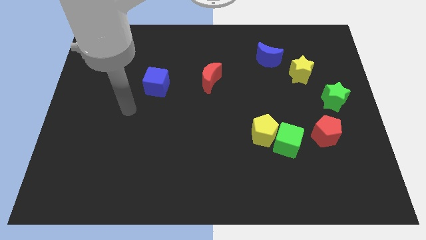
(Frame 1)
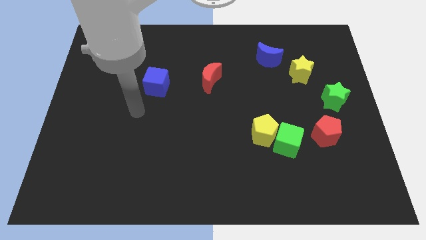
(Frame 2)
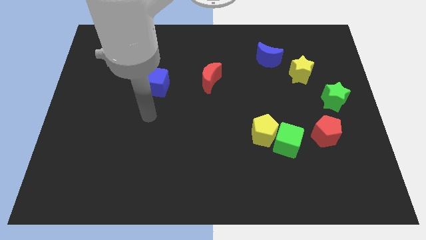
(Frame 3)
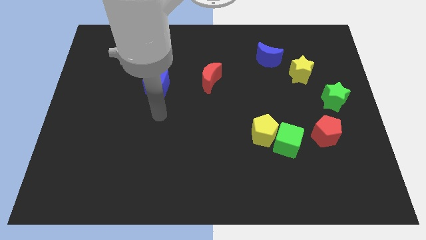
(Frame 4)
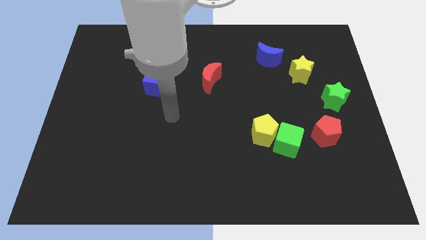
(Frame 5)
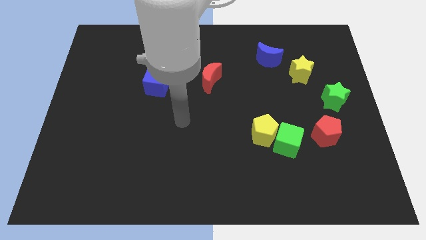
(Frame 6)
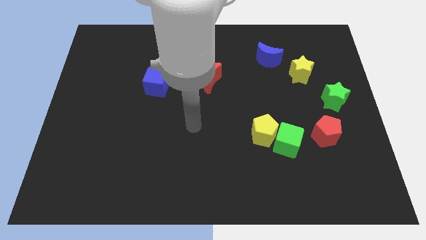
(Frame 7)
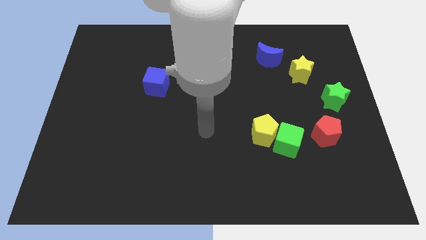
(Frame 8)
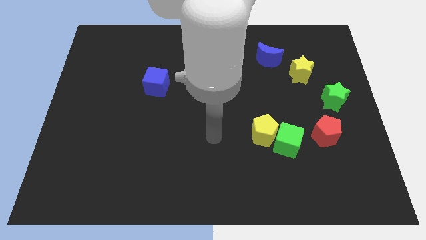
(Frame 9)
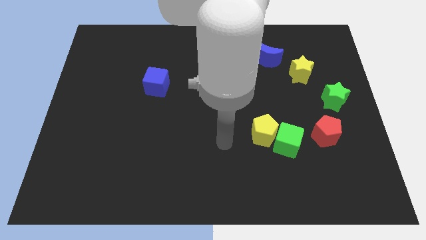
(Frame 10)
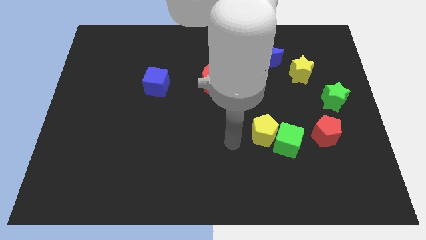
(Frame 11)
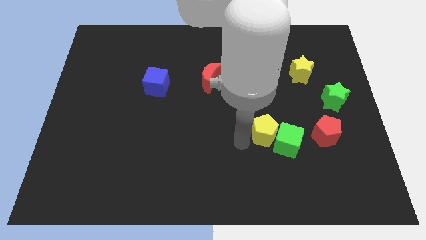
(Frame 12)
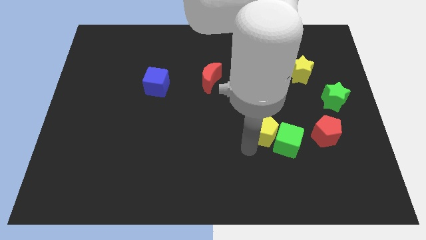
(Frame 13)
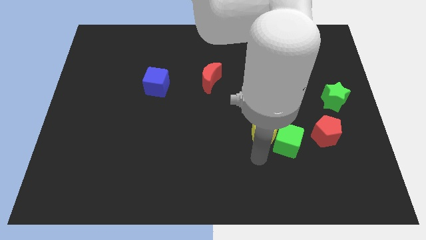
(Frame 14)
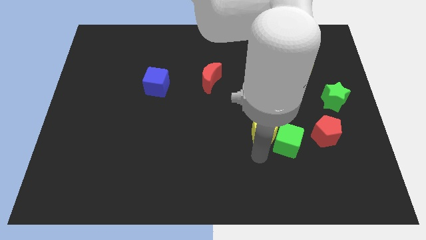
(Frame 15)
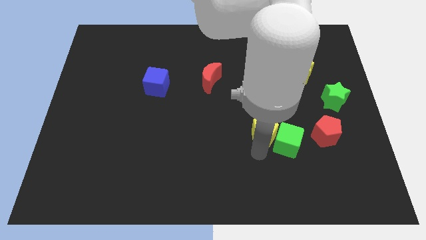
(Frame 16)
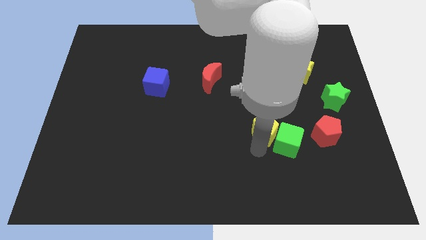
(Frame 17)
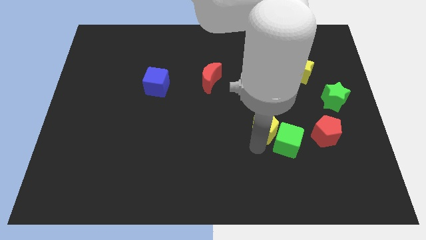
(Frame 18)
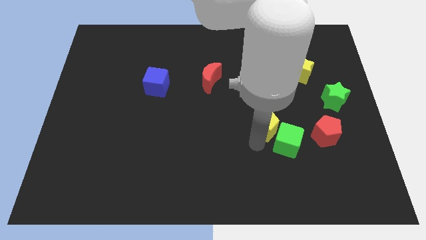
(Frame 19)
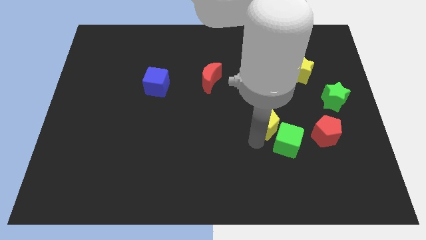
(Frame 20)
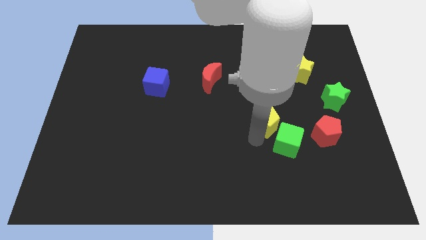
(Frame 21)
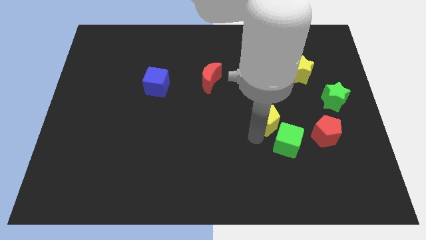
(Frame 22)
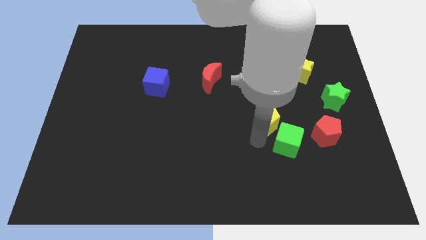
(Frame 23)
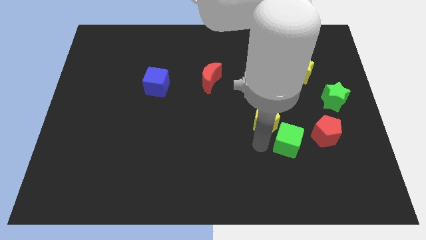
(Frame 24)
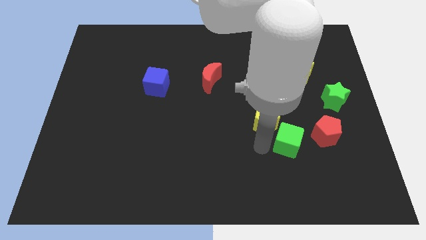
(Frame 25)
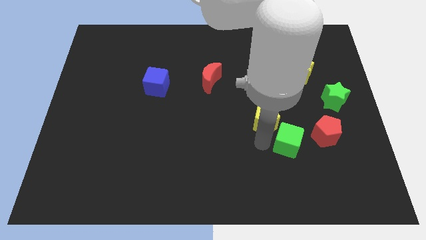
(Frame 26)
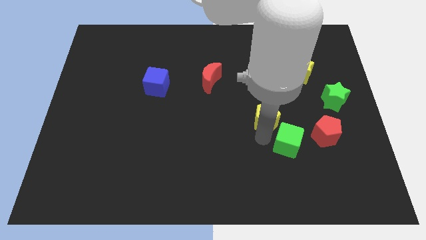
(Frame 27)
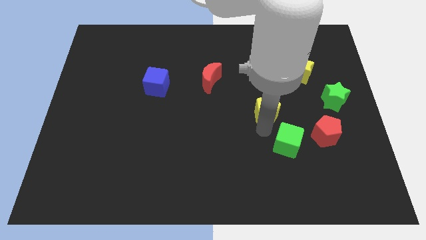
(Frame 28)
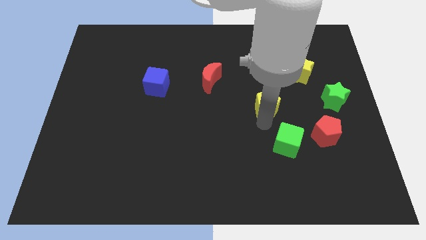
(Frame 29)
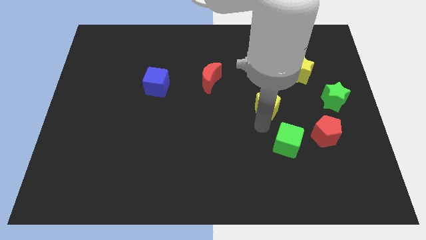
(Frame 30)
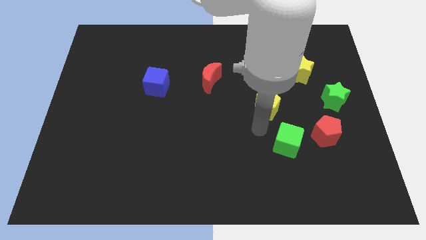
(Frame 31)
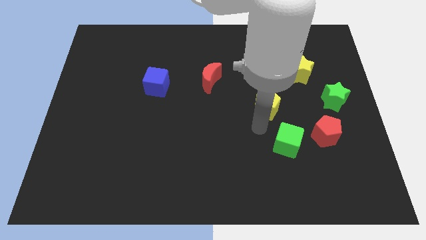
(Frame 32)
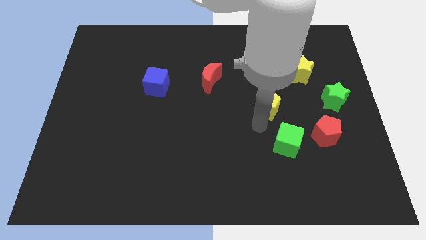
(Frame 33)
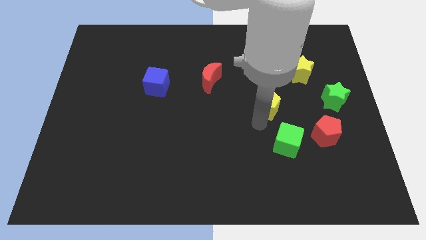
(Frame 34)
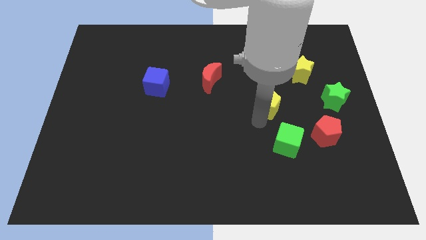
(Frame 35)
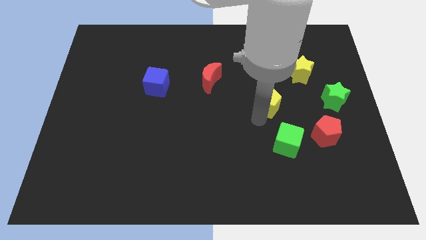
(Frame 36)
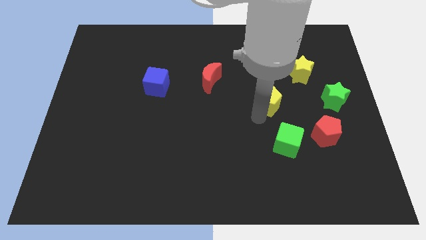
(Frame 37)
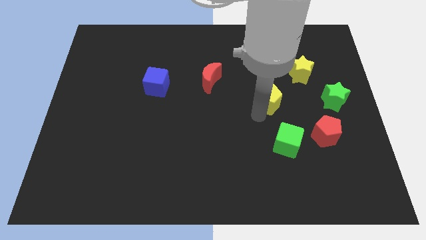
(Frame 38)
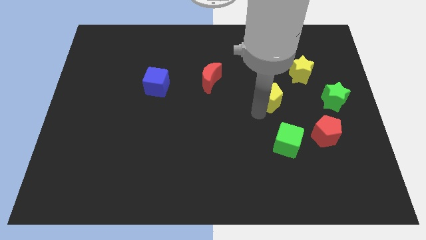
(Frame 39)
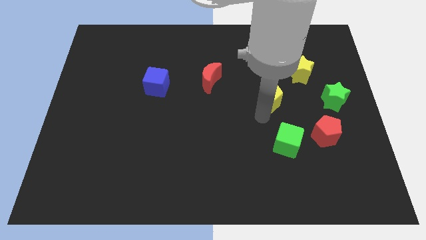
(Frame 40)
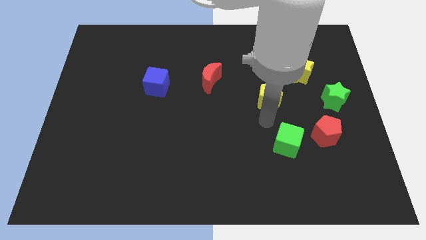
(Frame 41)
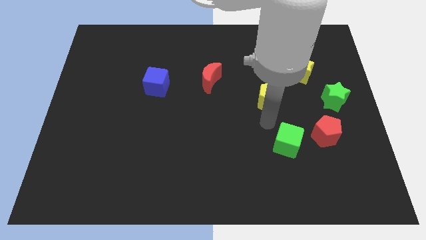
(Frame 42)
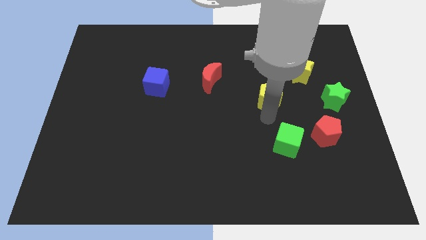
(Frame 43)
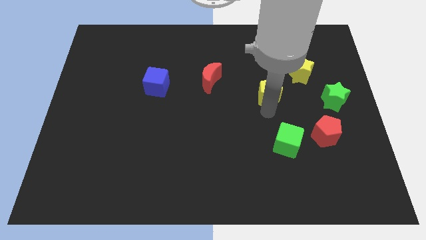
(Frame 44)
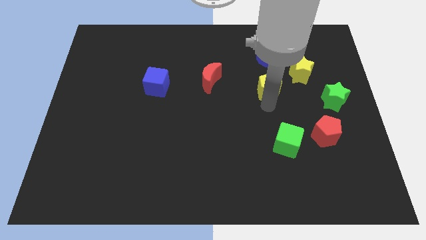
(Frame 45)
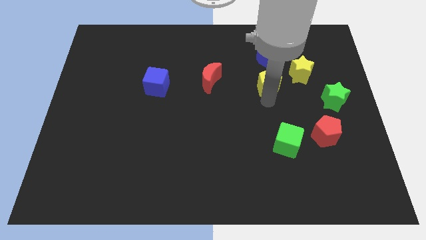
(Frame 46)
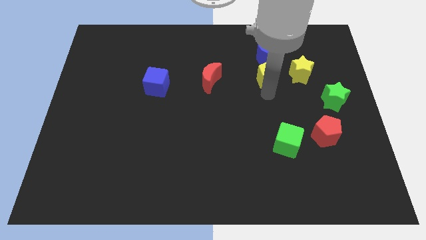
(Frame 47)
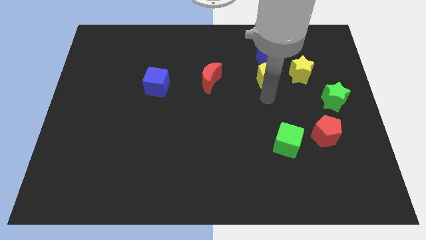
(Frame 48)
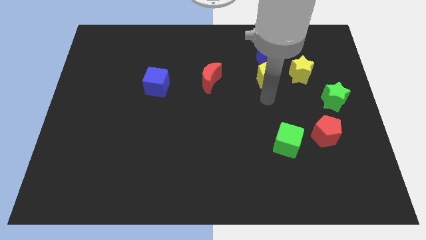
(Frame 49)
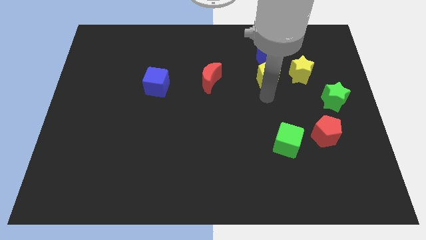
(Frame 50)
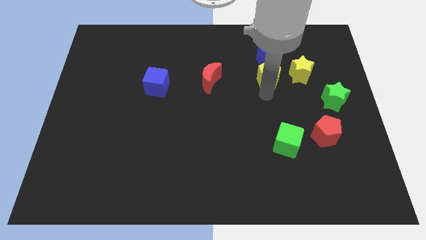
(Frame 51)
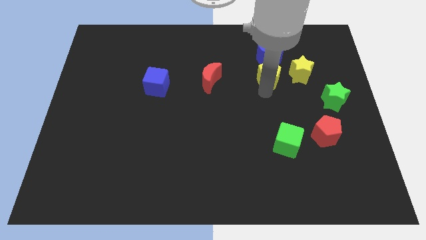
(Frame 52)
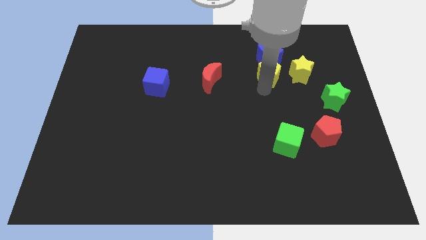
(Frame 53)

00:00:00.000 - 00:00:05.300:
put the yellow pentagon towards the blue moon

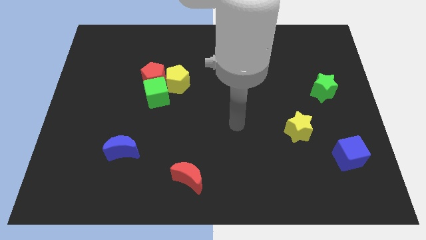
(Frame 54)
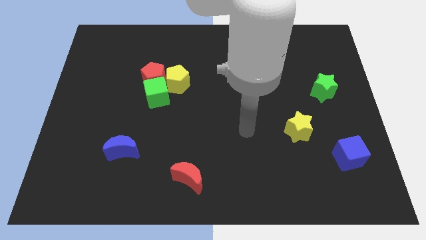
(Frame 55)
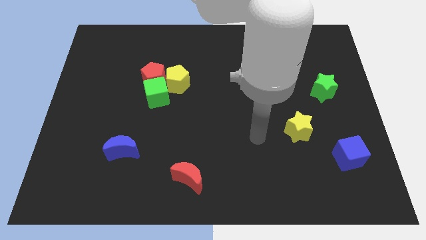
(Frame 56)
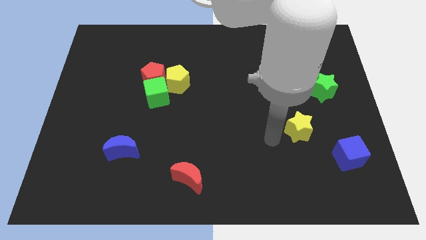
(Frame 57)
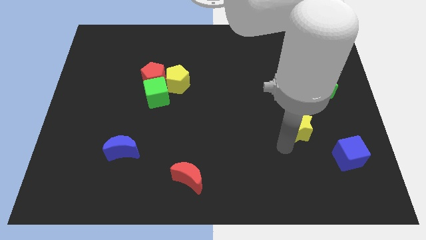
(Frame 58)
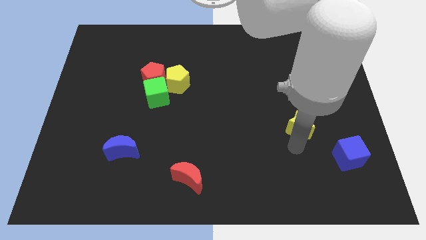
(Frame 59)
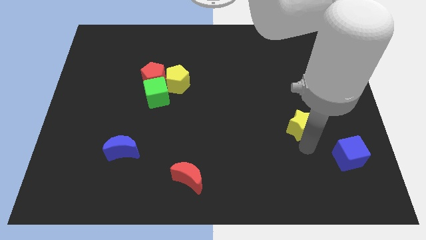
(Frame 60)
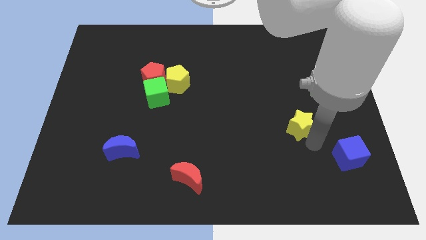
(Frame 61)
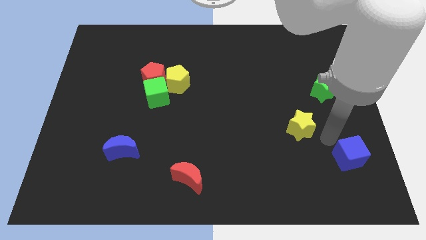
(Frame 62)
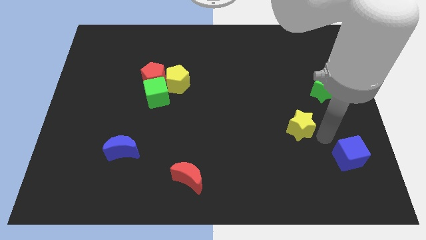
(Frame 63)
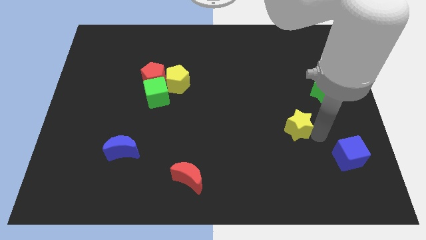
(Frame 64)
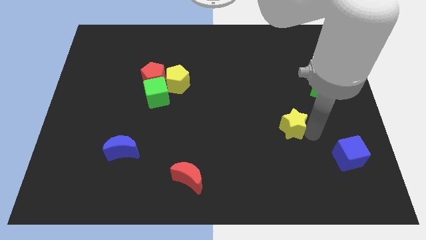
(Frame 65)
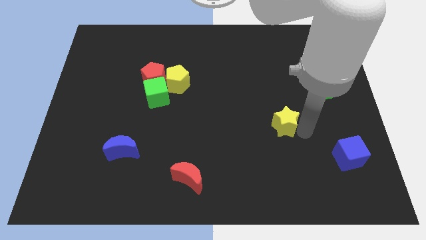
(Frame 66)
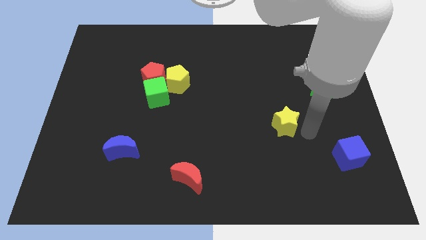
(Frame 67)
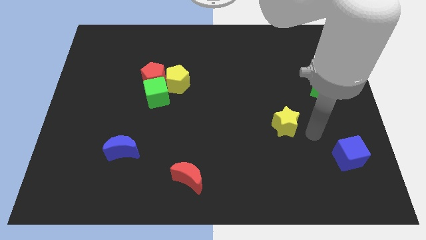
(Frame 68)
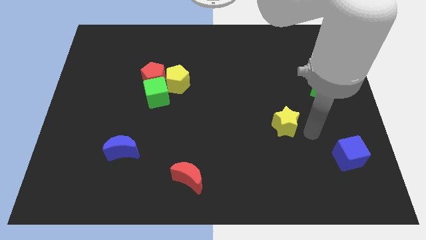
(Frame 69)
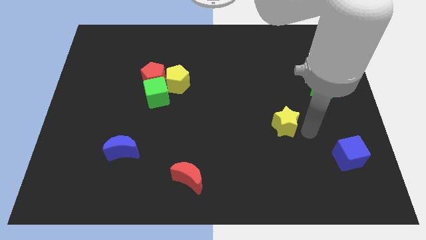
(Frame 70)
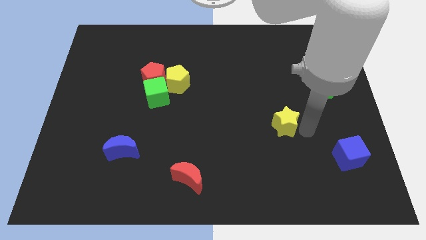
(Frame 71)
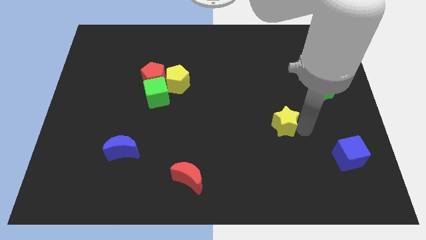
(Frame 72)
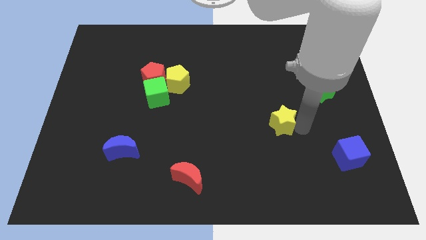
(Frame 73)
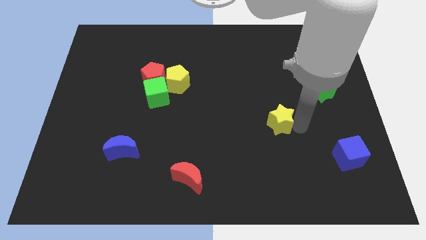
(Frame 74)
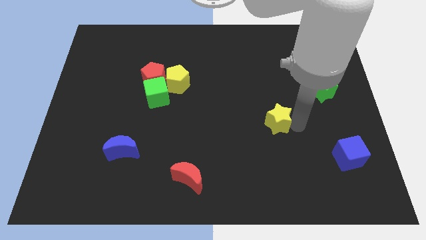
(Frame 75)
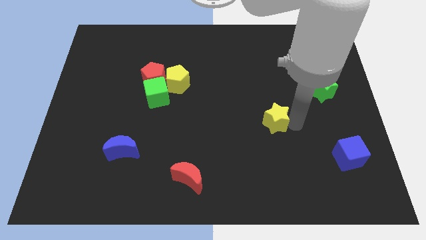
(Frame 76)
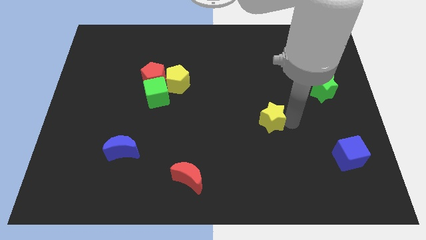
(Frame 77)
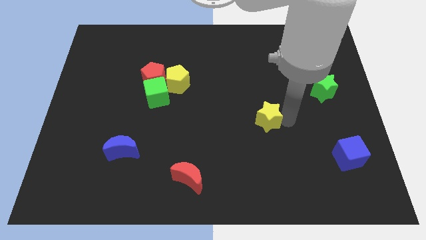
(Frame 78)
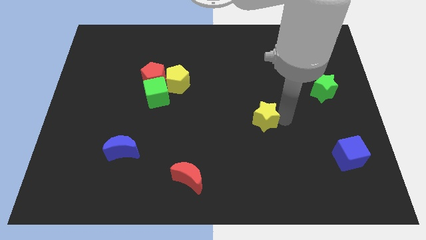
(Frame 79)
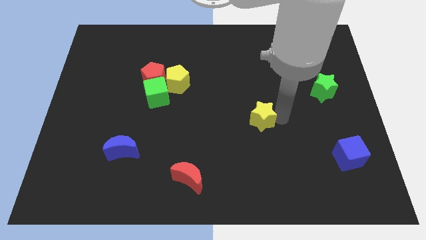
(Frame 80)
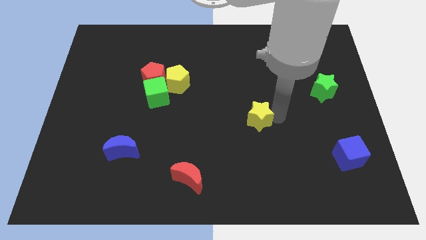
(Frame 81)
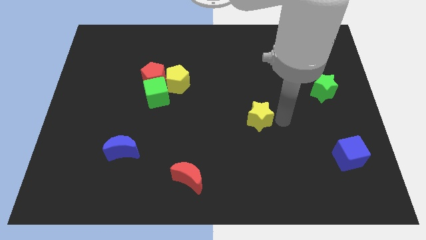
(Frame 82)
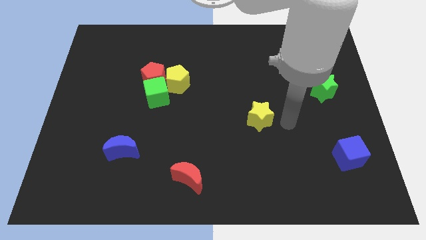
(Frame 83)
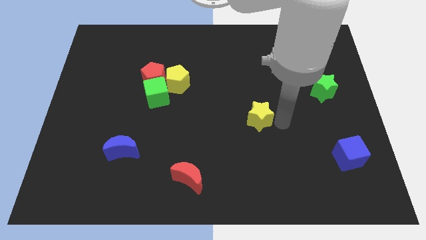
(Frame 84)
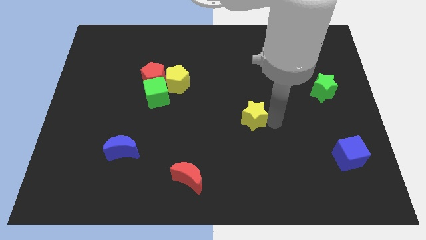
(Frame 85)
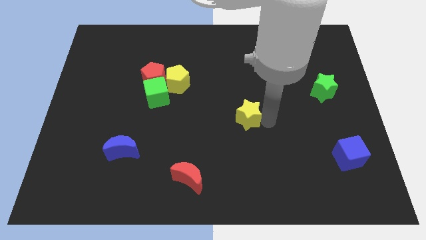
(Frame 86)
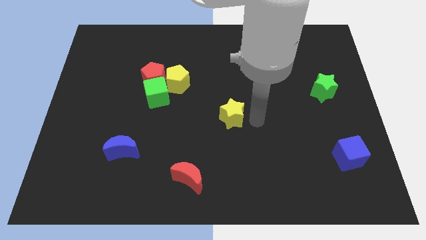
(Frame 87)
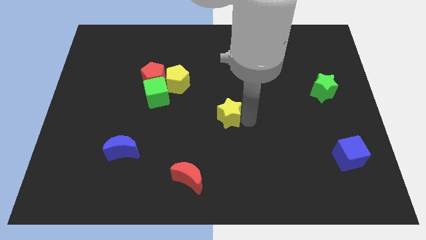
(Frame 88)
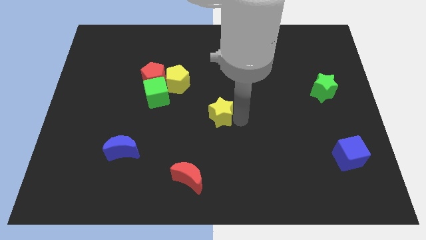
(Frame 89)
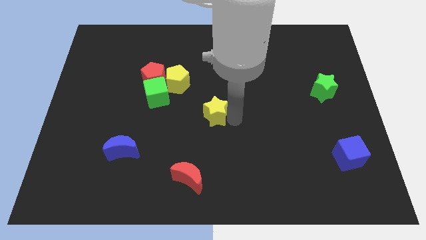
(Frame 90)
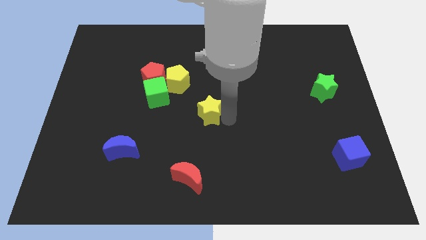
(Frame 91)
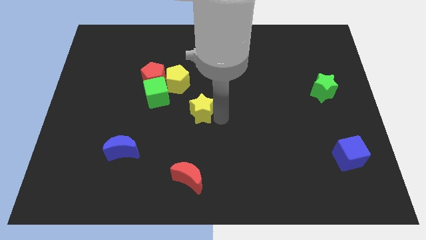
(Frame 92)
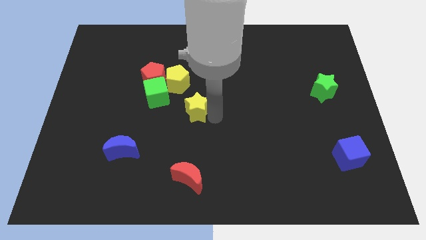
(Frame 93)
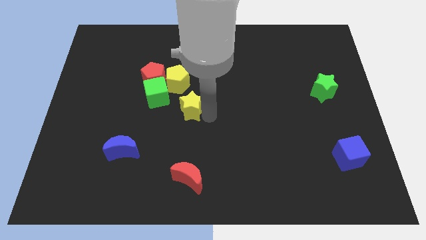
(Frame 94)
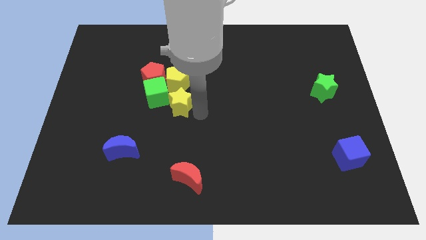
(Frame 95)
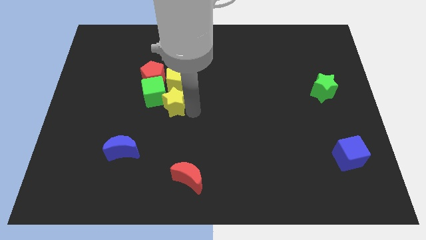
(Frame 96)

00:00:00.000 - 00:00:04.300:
put the yellow star to the green cube
